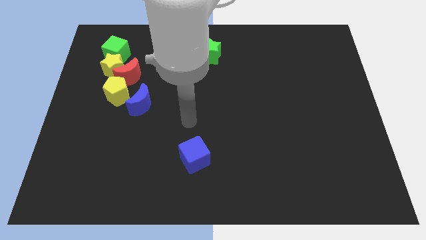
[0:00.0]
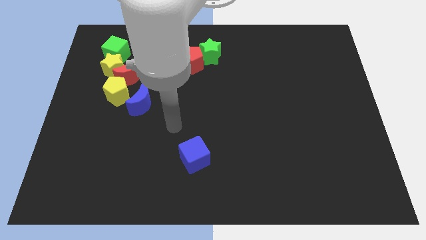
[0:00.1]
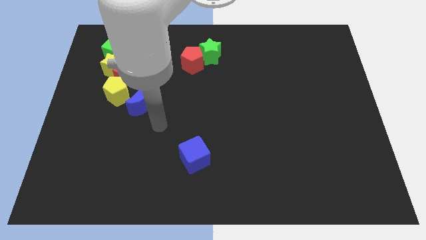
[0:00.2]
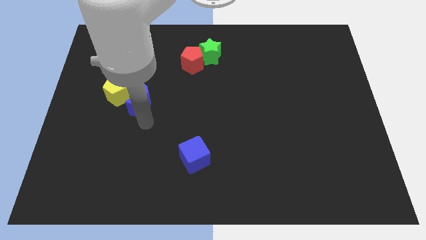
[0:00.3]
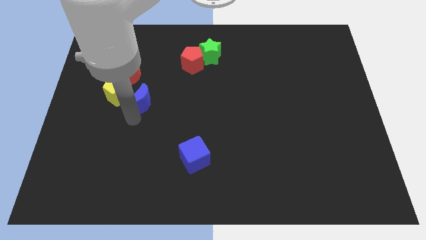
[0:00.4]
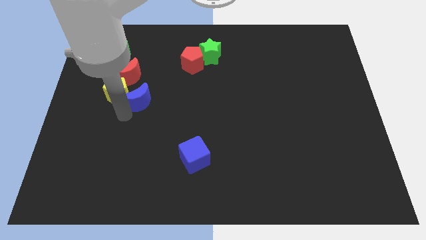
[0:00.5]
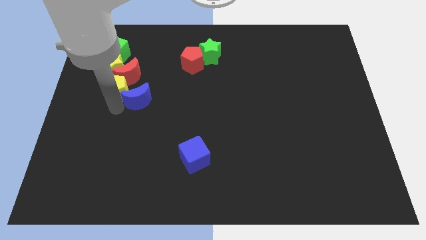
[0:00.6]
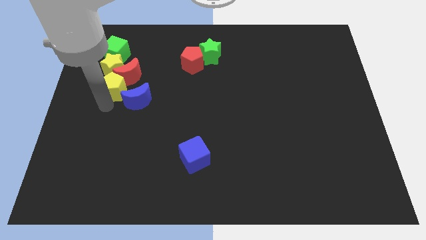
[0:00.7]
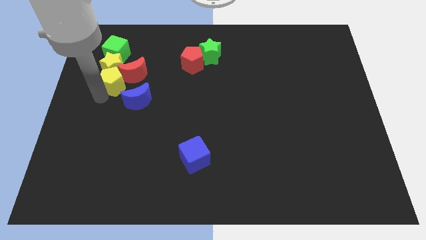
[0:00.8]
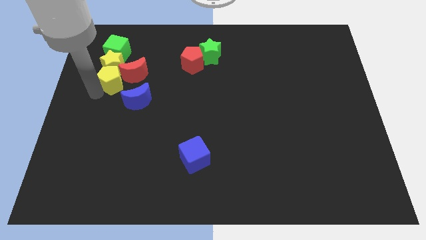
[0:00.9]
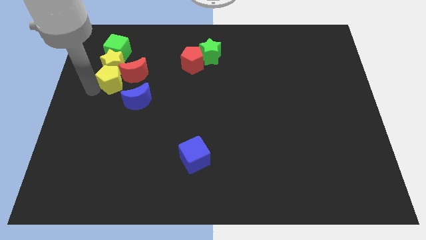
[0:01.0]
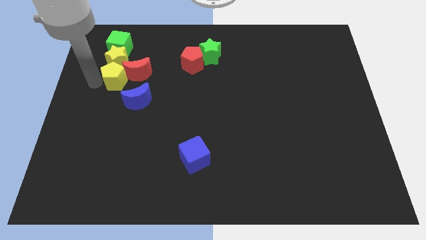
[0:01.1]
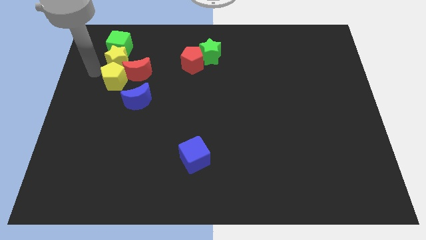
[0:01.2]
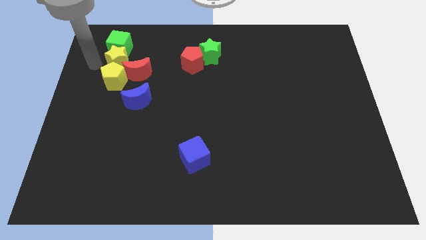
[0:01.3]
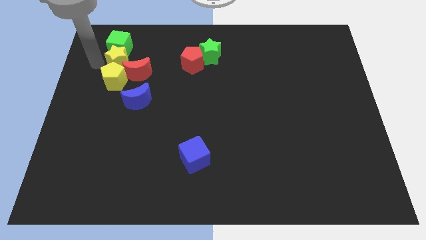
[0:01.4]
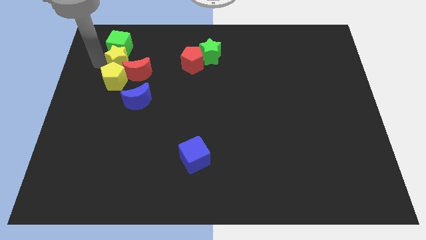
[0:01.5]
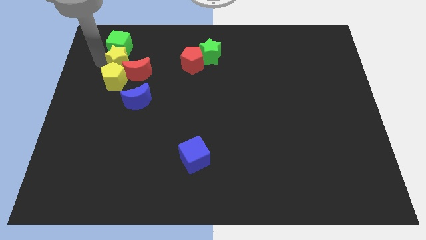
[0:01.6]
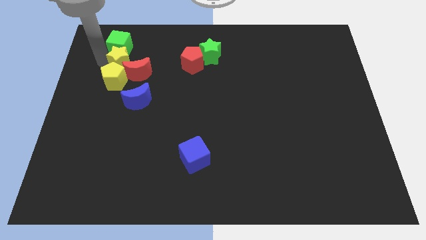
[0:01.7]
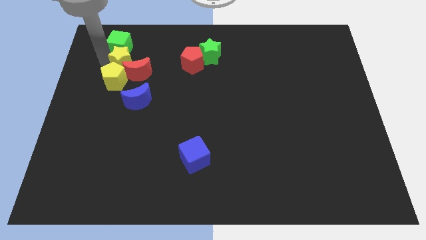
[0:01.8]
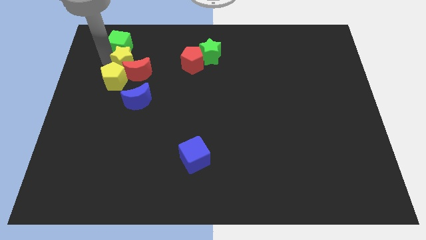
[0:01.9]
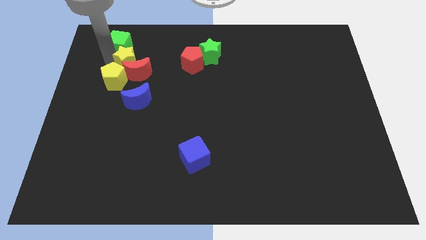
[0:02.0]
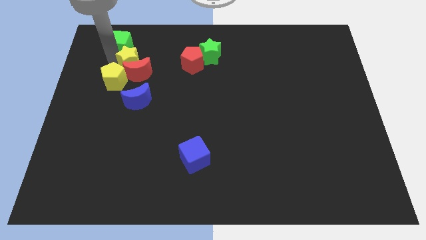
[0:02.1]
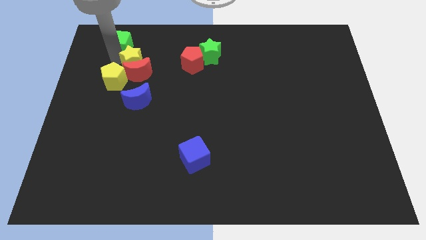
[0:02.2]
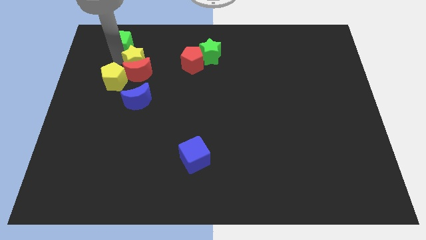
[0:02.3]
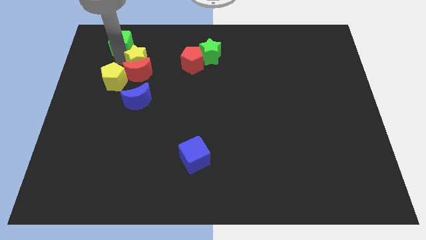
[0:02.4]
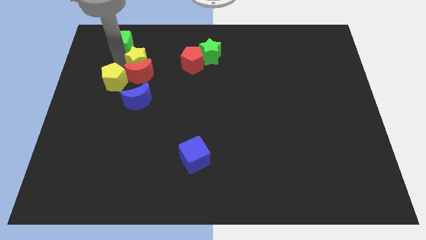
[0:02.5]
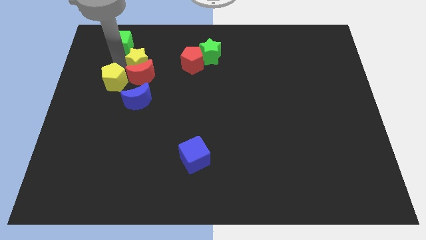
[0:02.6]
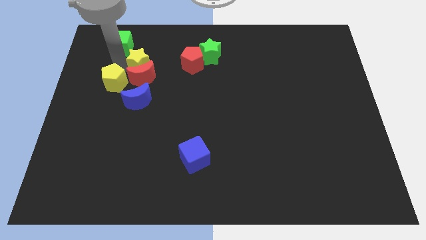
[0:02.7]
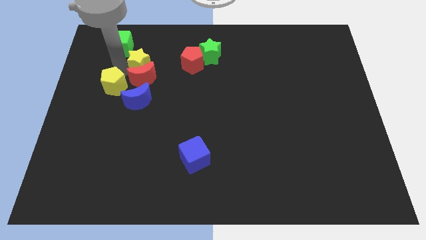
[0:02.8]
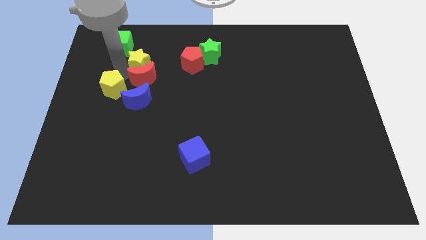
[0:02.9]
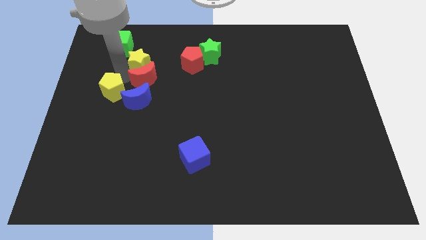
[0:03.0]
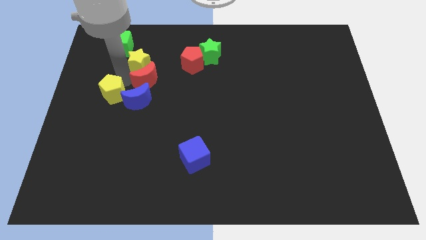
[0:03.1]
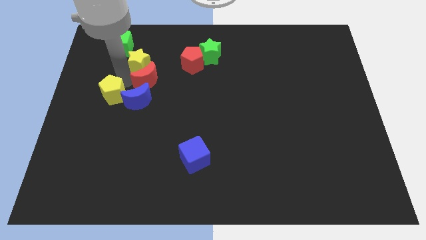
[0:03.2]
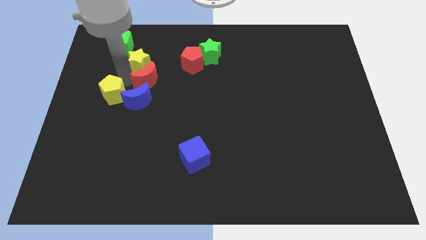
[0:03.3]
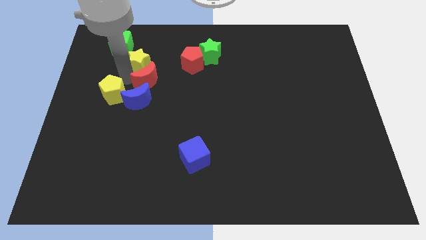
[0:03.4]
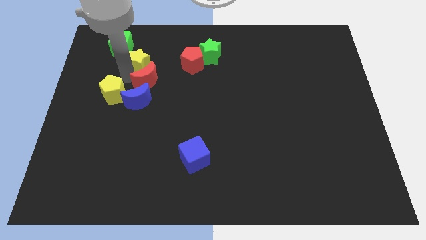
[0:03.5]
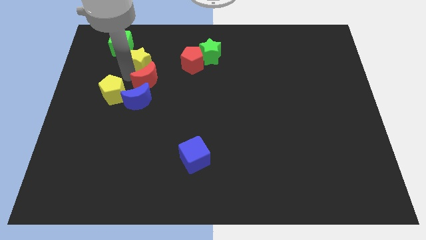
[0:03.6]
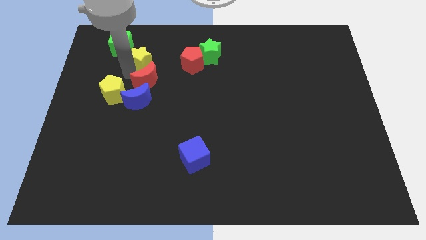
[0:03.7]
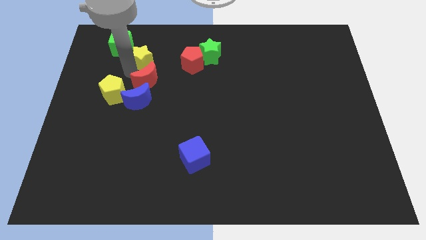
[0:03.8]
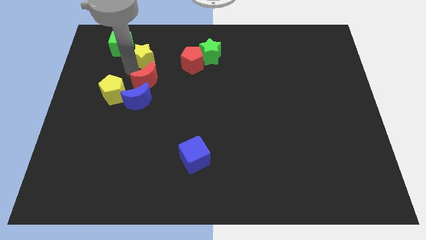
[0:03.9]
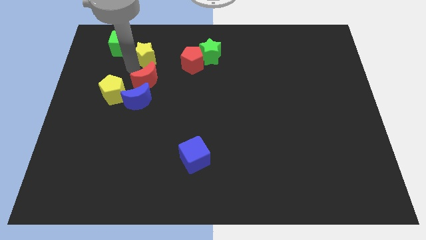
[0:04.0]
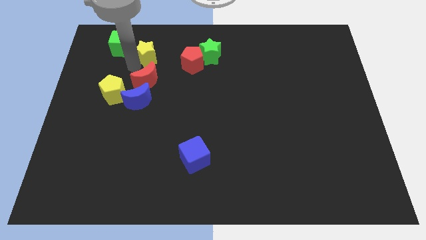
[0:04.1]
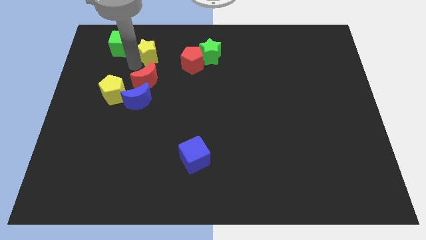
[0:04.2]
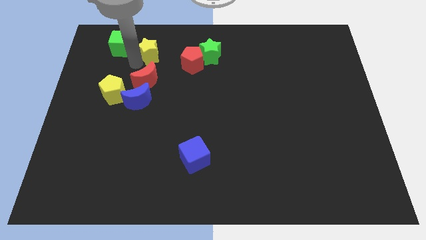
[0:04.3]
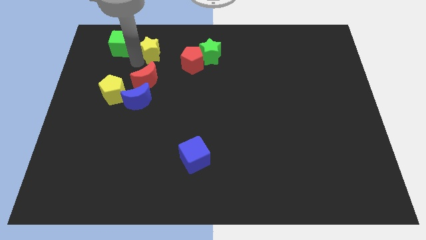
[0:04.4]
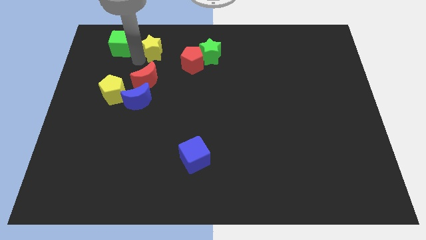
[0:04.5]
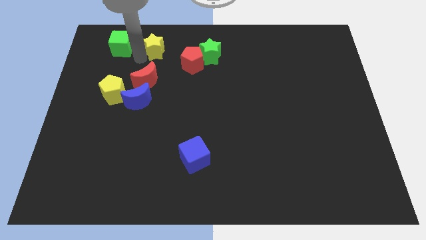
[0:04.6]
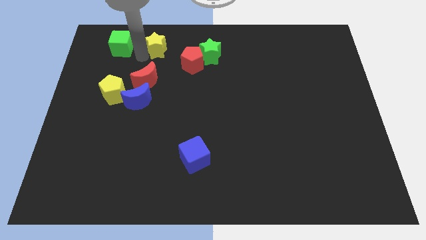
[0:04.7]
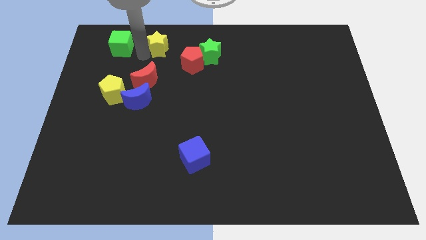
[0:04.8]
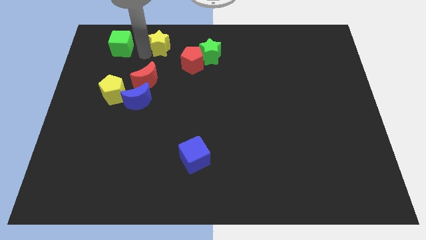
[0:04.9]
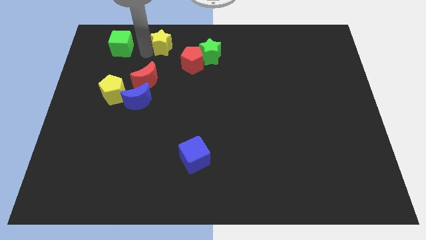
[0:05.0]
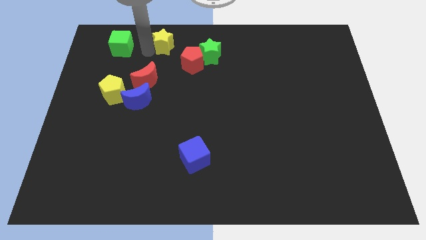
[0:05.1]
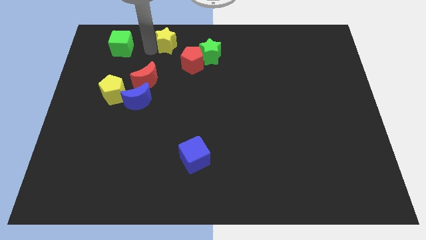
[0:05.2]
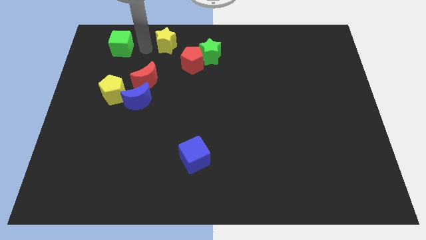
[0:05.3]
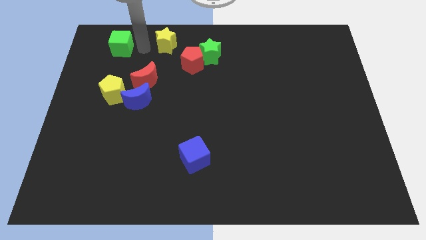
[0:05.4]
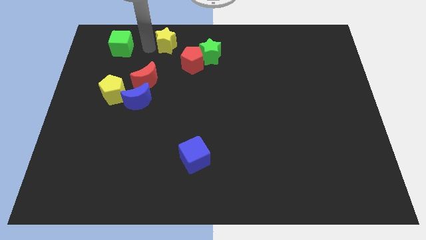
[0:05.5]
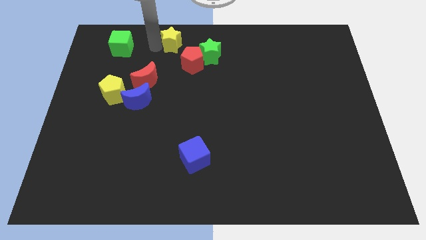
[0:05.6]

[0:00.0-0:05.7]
move the yellow star to the towards your base
